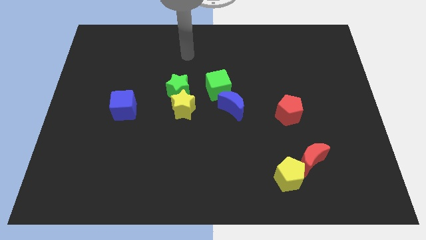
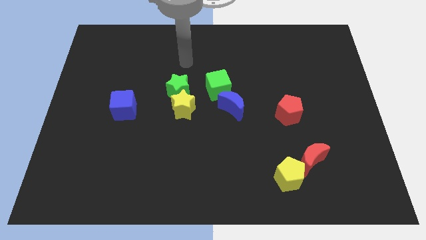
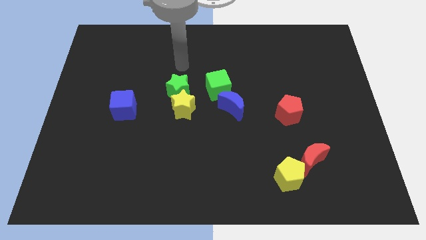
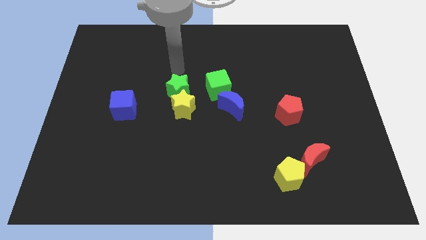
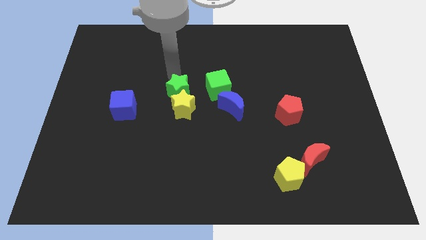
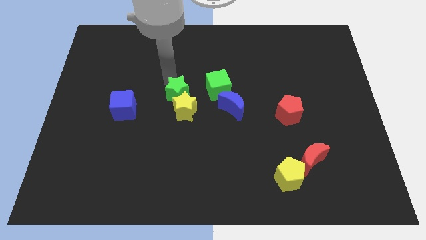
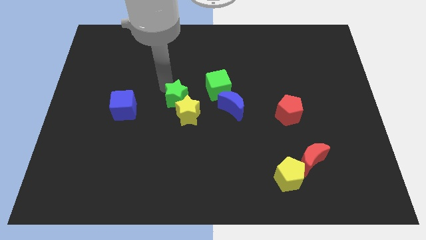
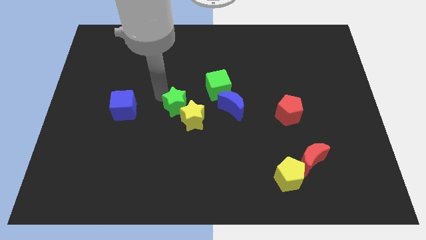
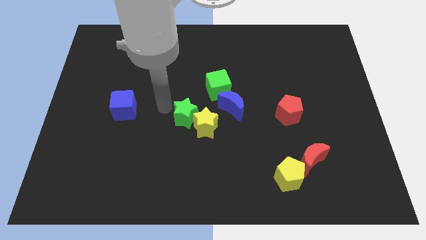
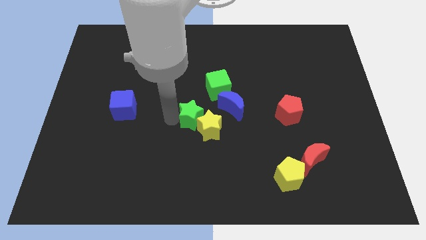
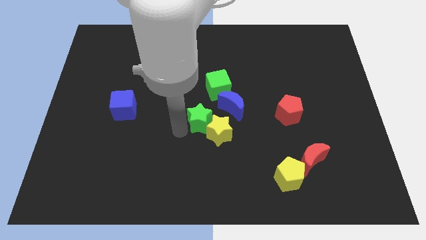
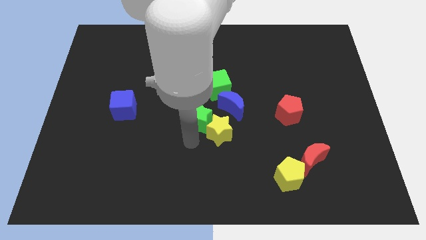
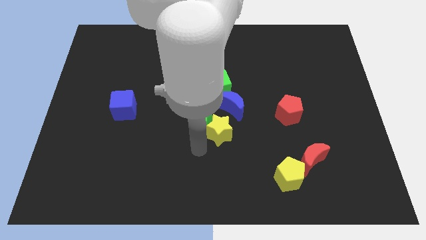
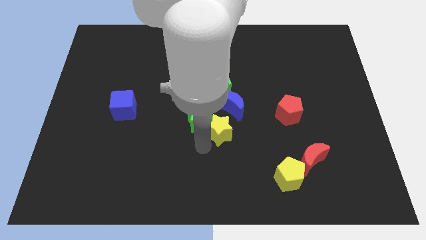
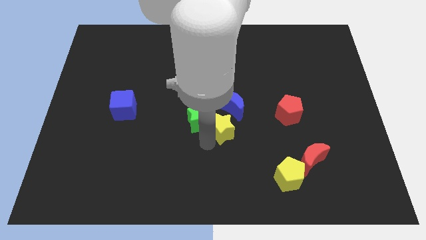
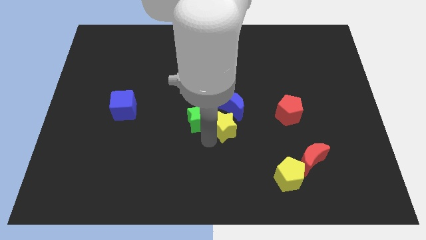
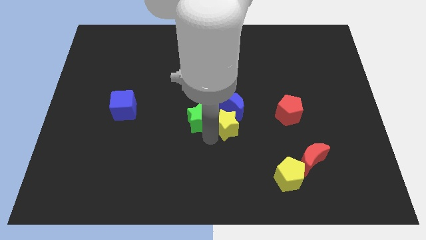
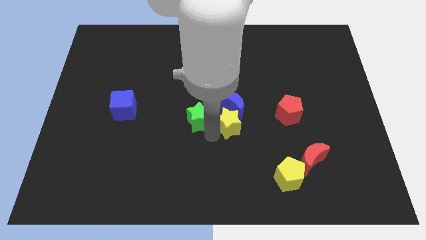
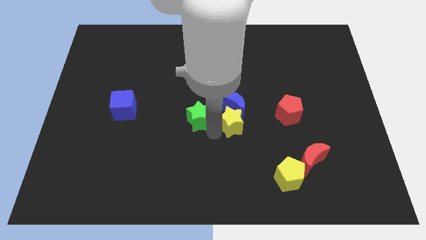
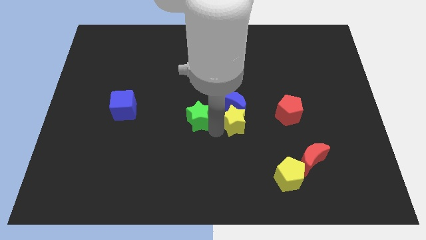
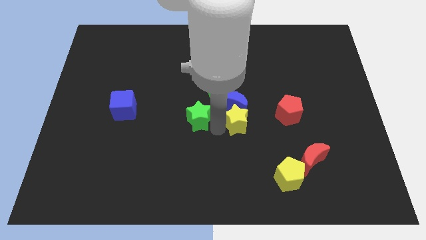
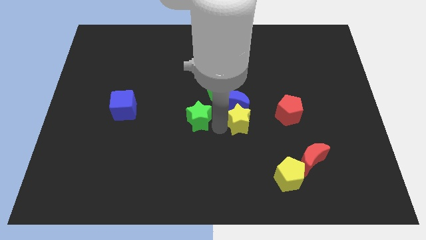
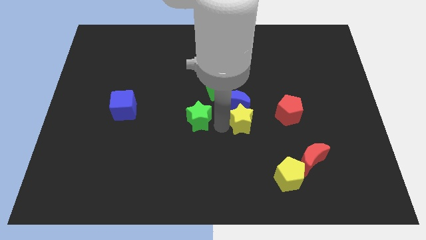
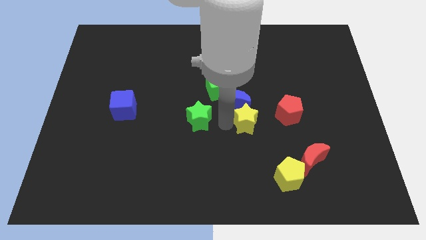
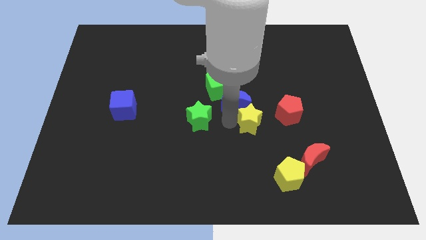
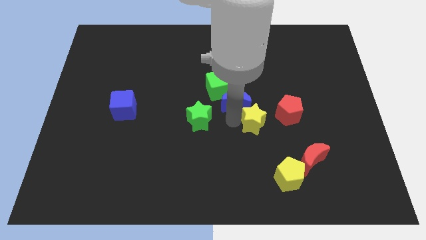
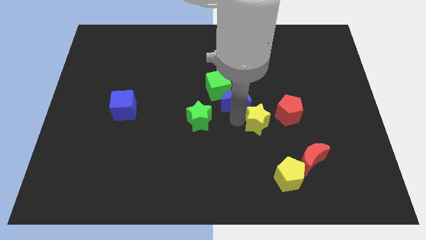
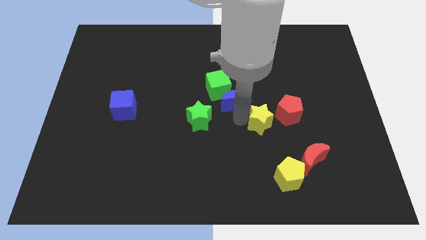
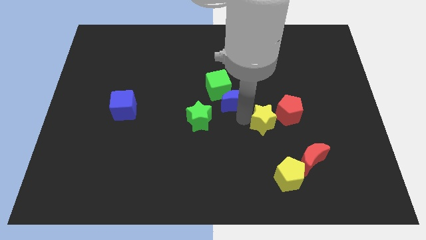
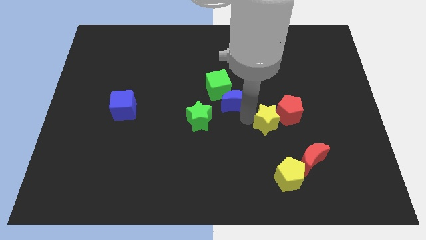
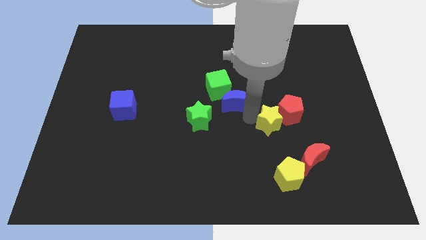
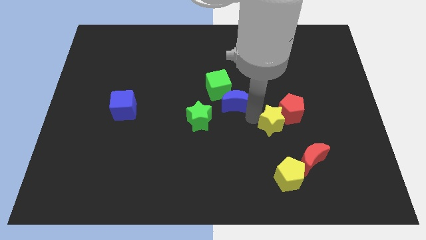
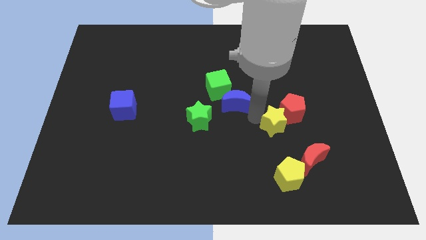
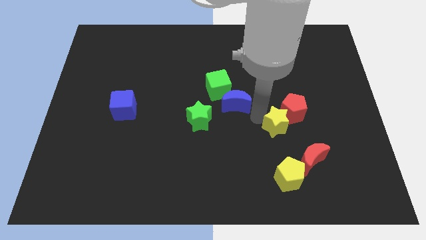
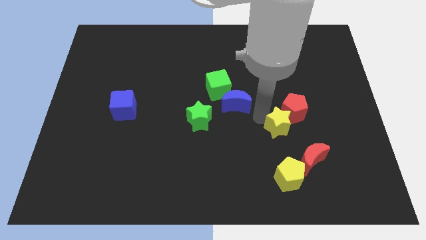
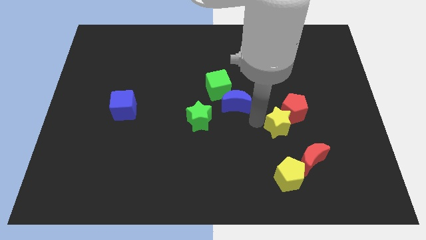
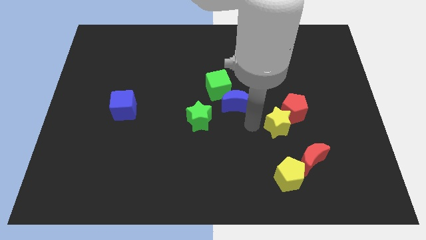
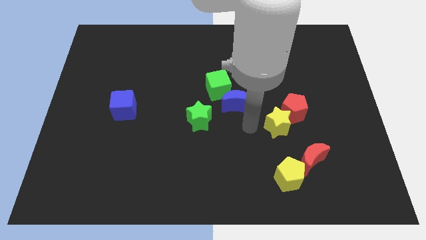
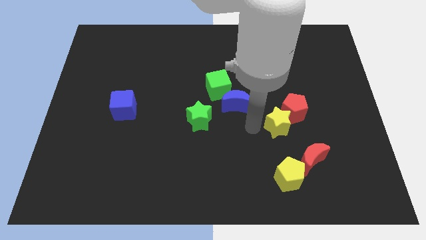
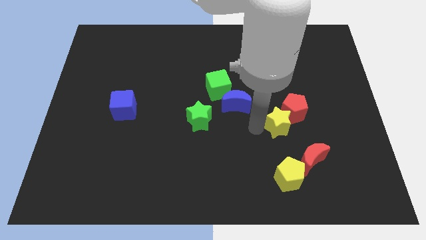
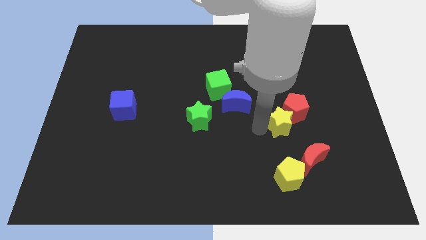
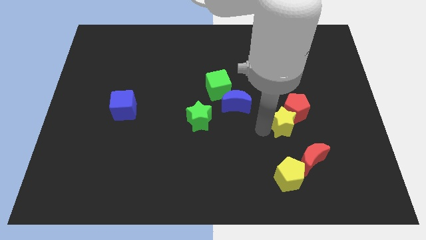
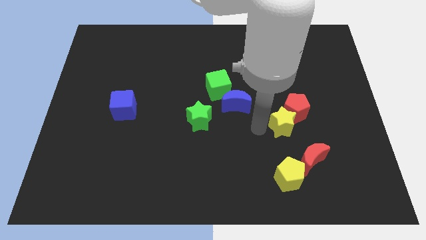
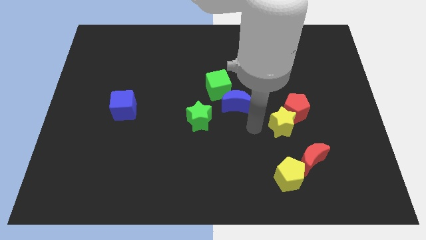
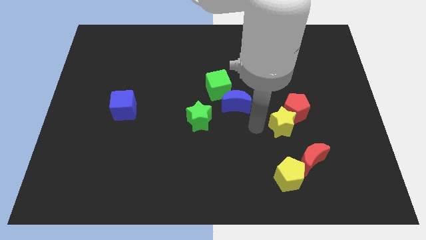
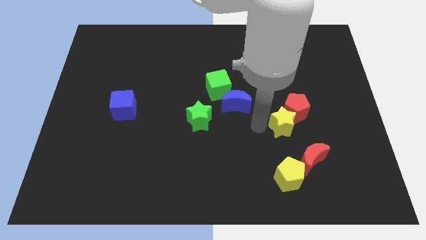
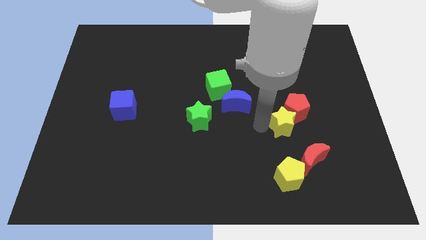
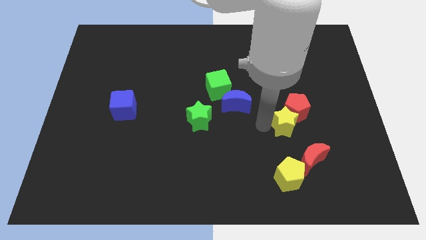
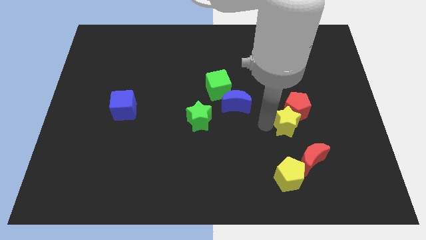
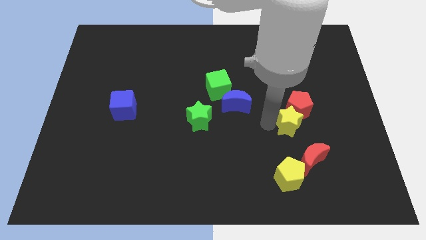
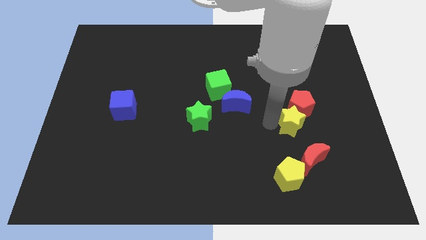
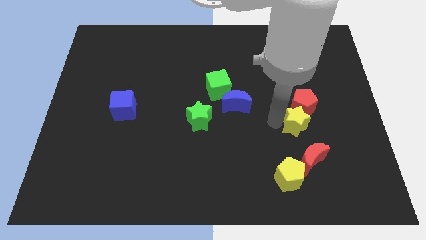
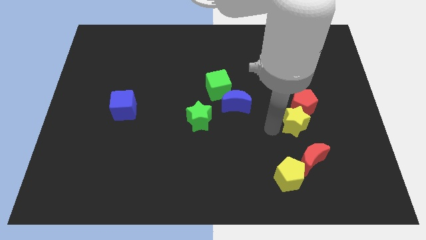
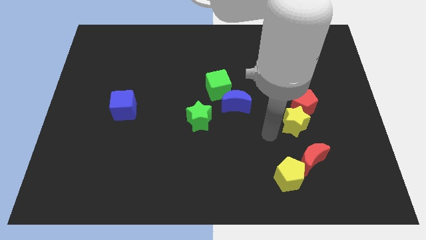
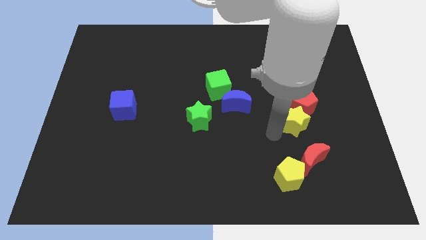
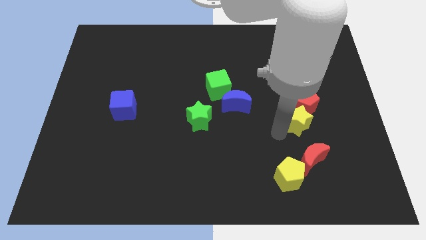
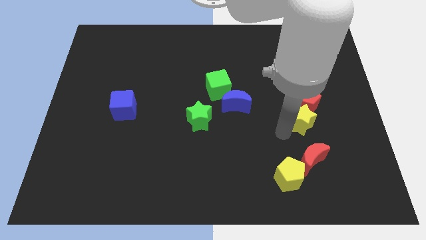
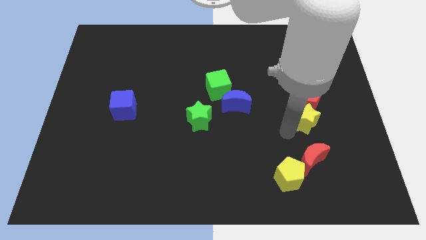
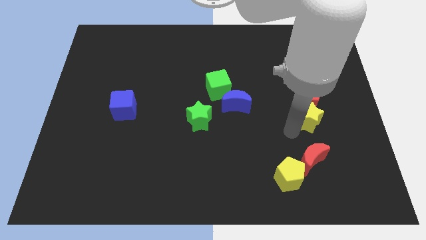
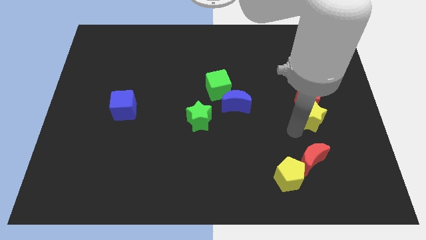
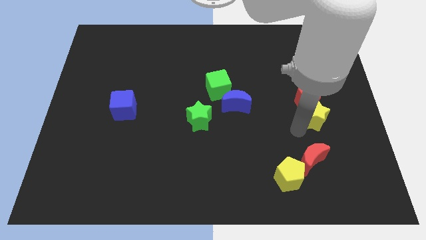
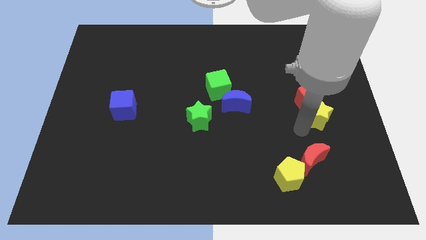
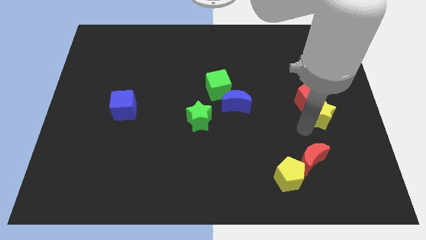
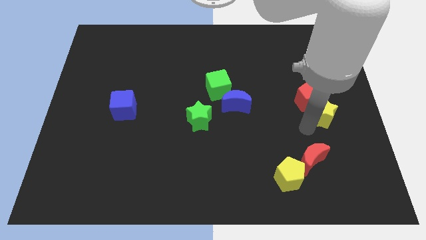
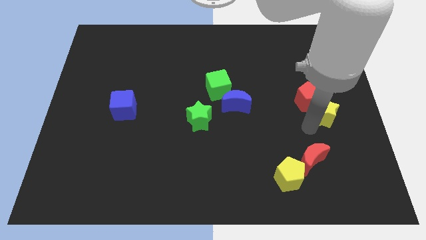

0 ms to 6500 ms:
slide the yellow star to the right side of the board
